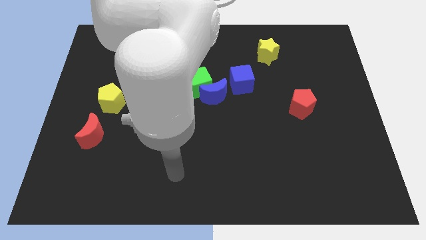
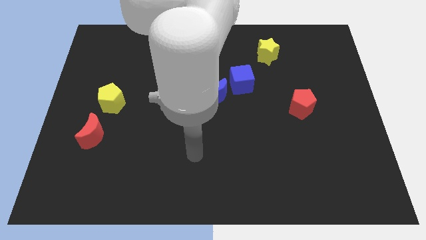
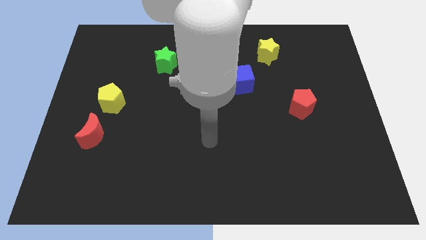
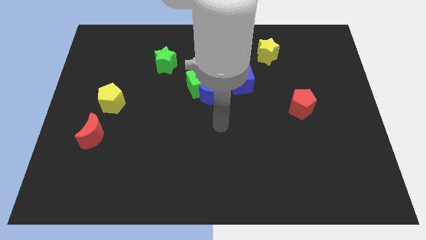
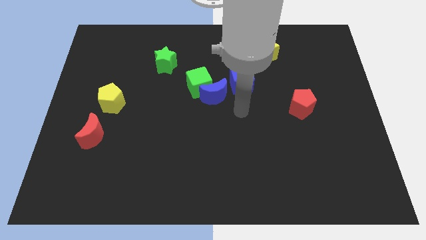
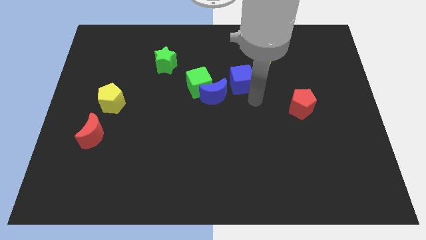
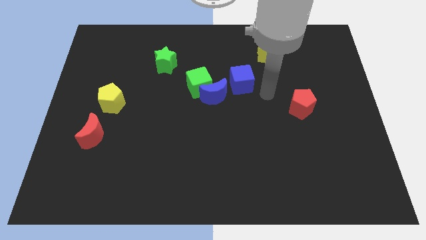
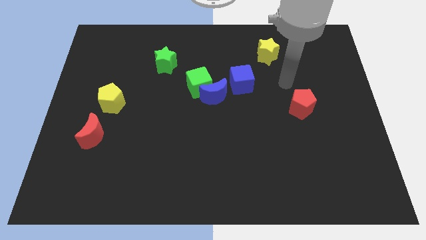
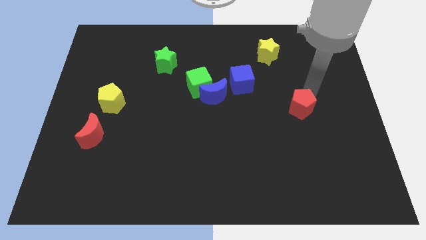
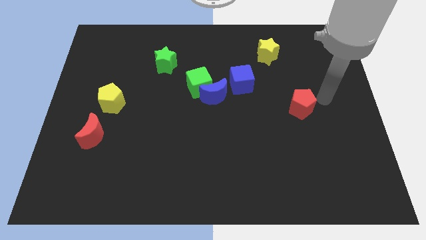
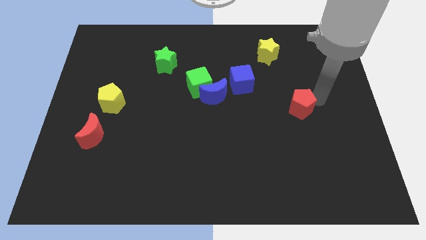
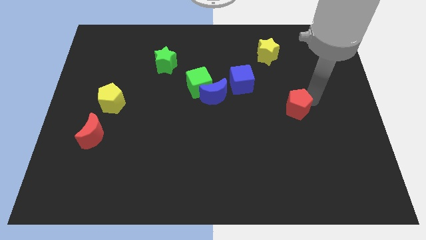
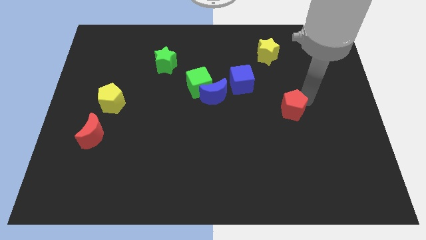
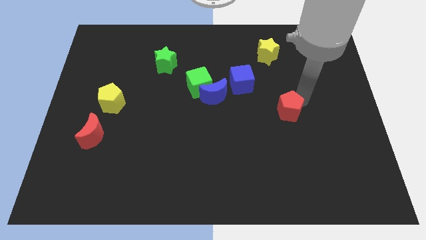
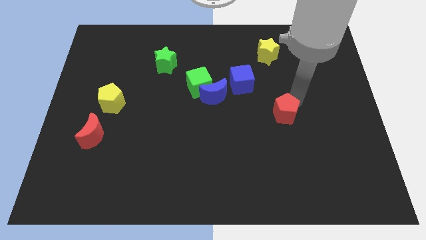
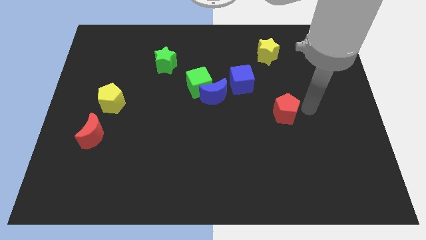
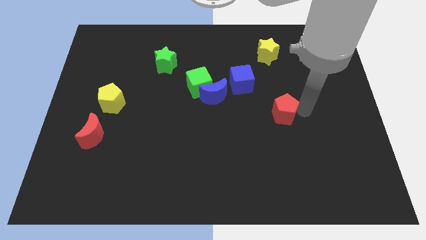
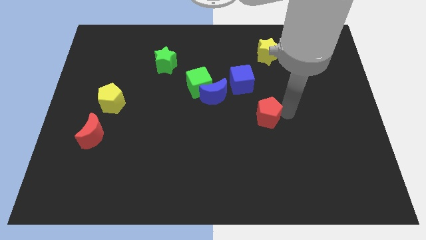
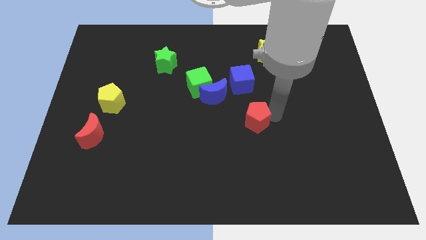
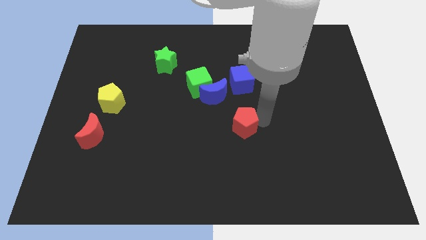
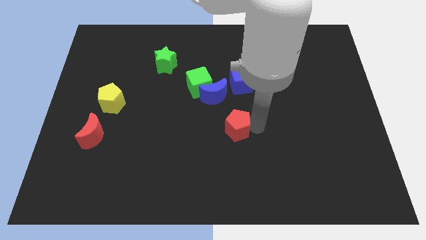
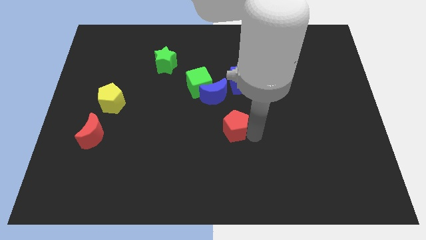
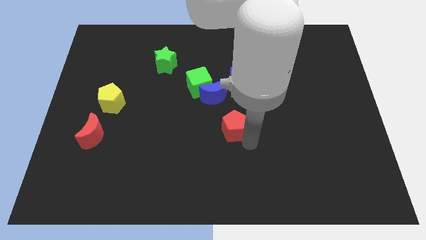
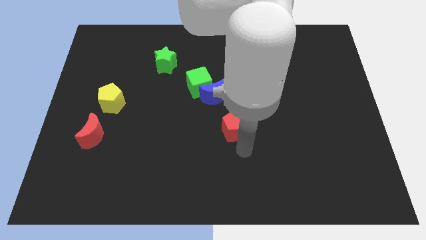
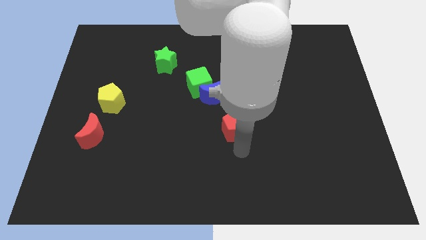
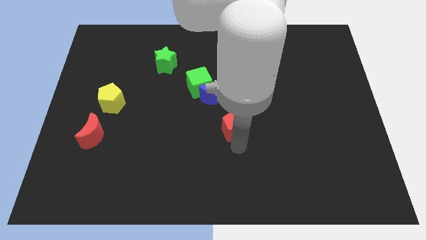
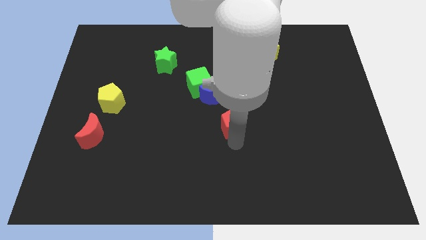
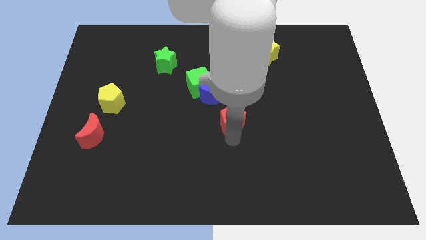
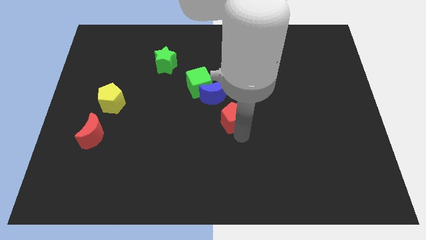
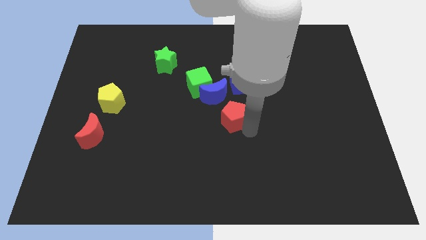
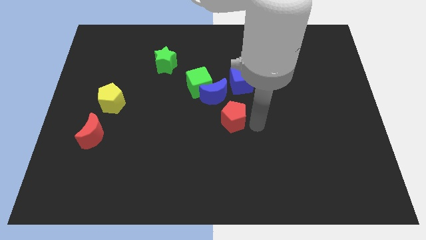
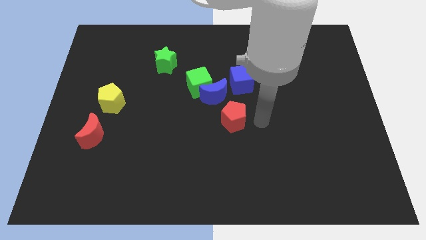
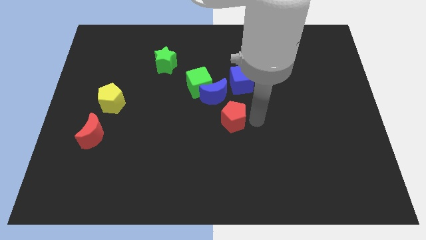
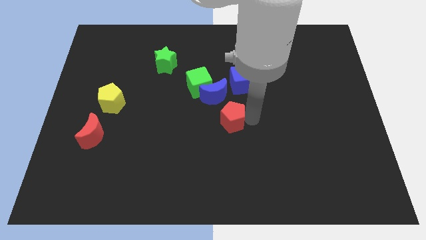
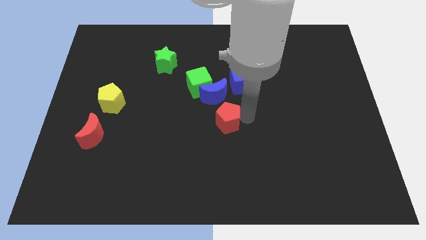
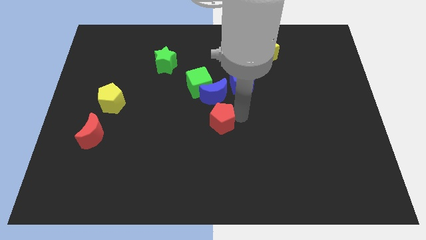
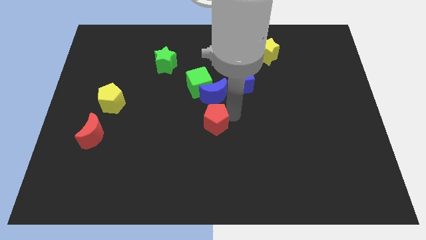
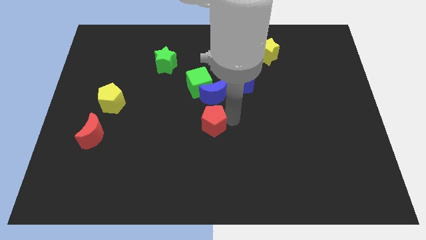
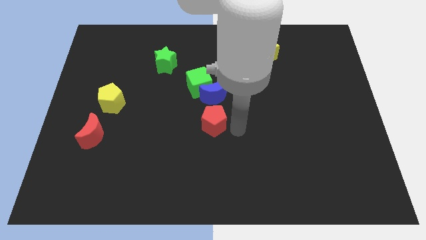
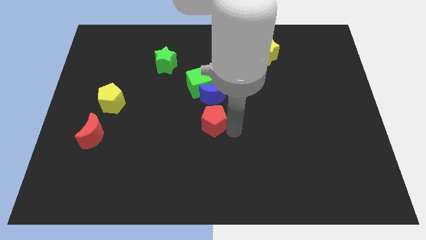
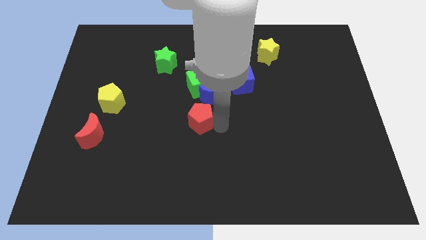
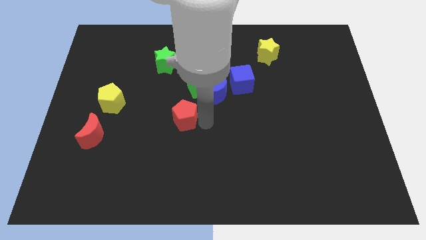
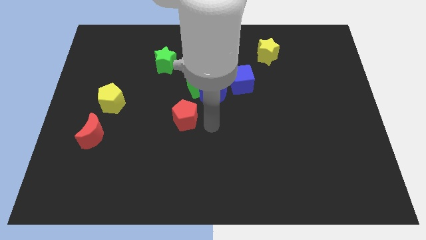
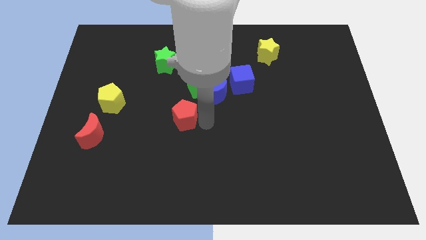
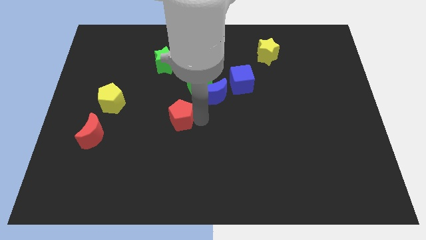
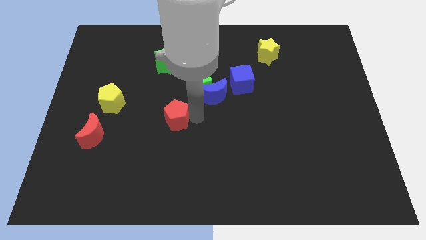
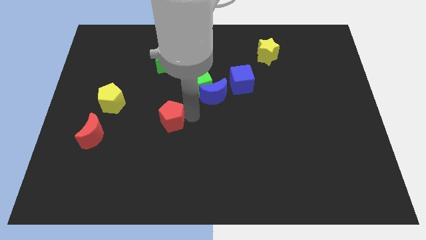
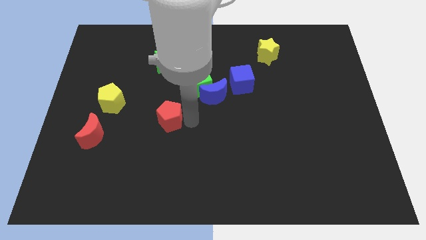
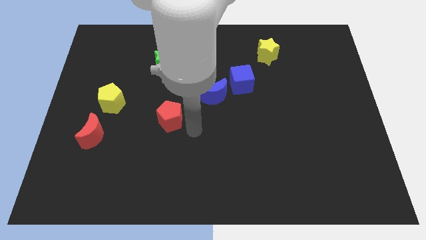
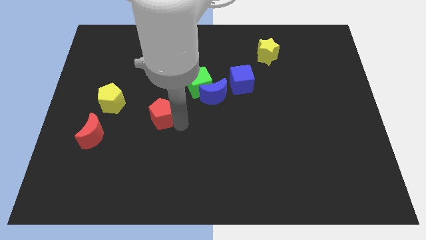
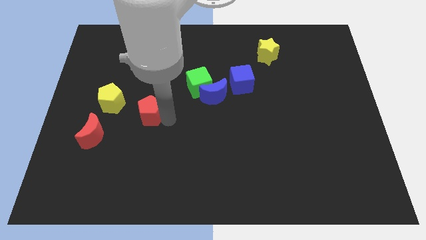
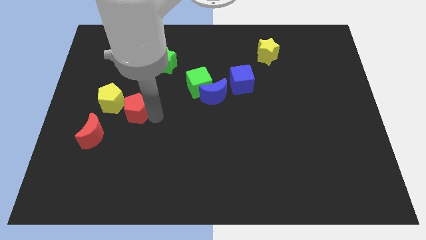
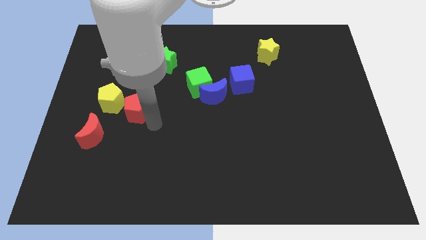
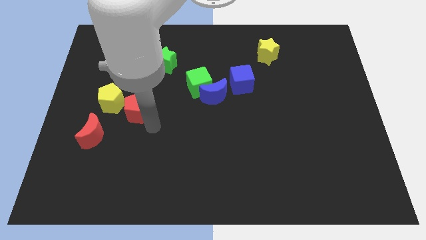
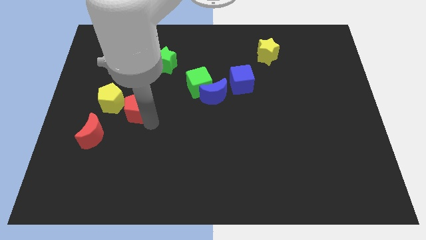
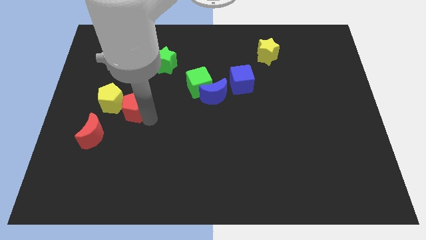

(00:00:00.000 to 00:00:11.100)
slide the red pentagon towards the yellow pentagon

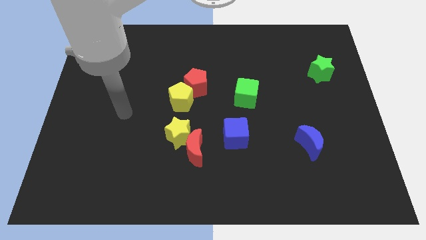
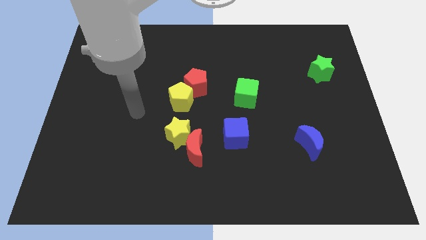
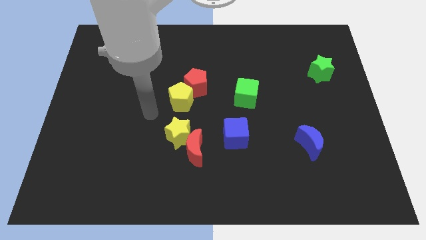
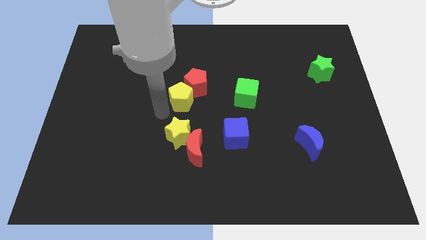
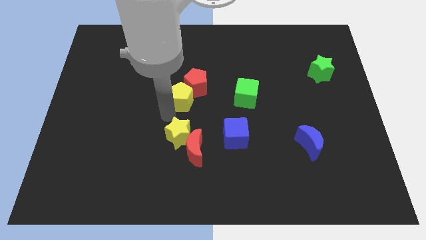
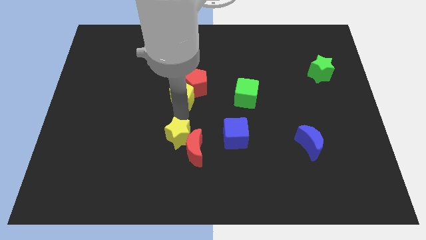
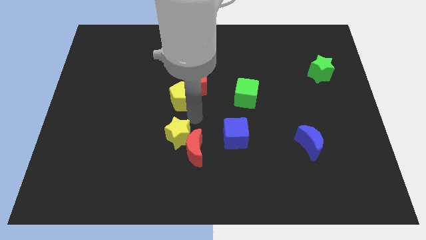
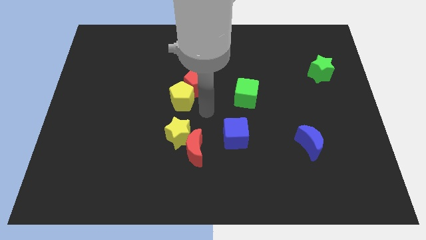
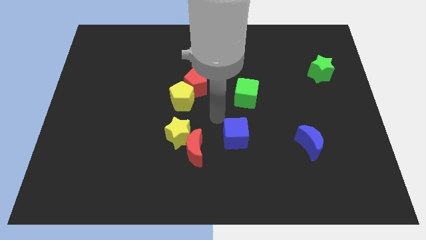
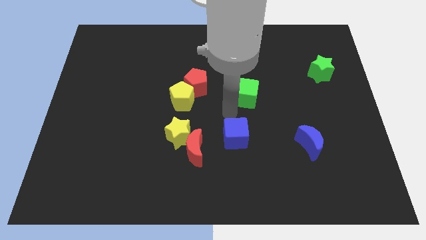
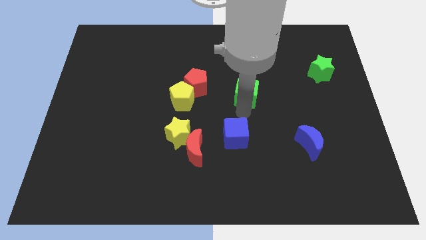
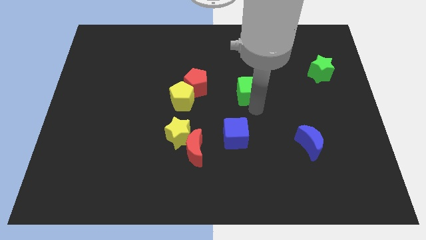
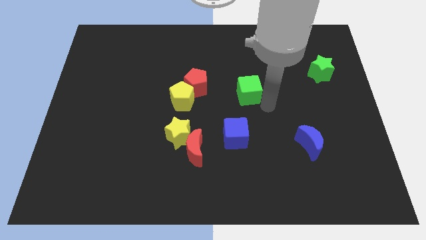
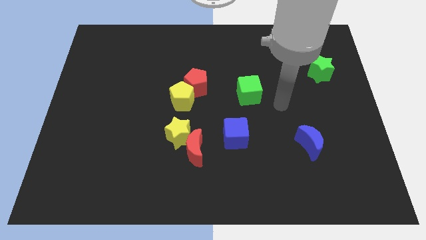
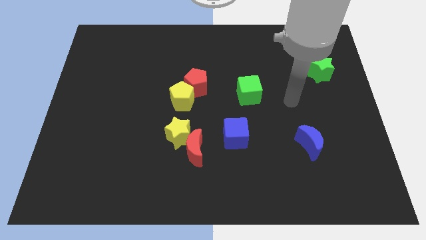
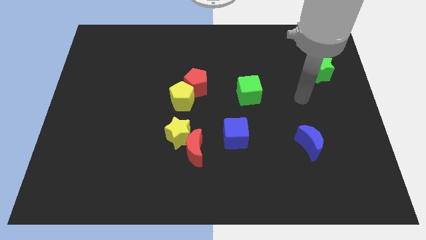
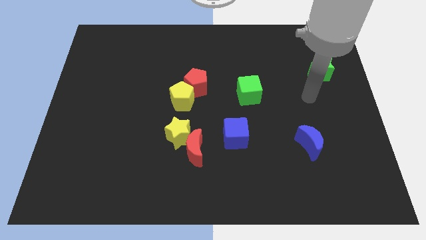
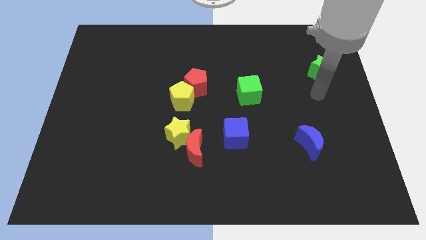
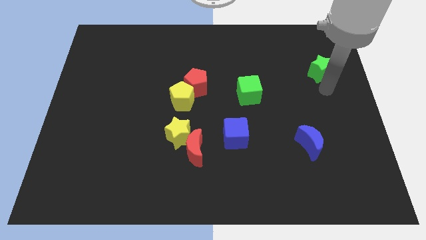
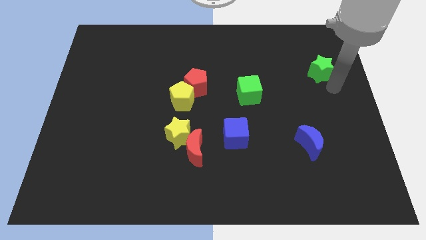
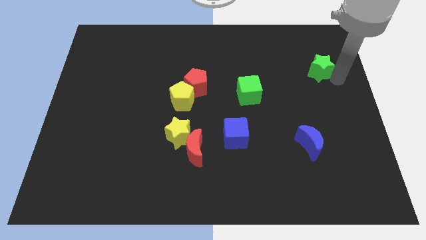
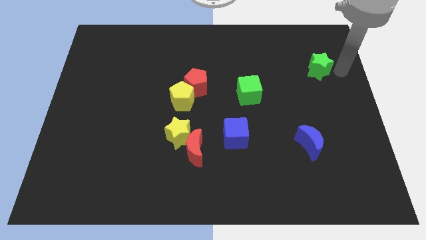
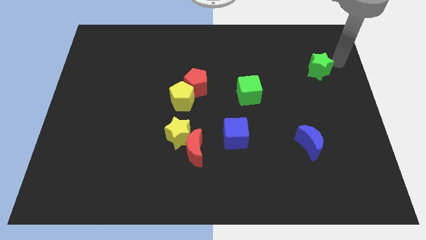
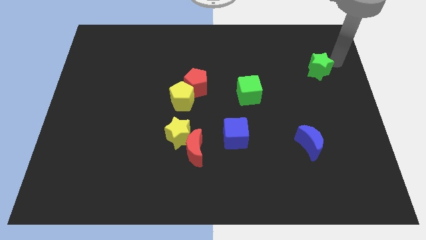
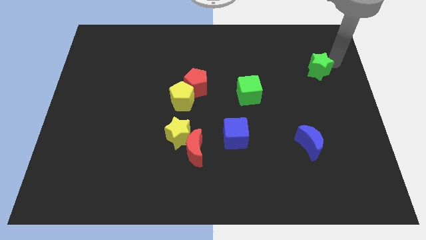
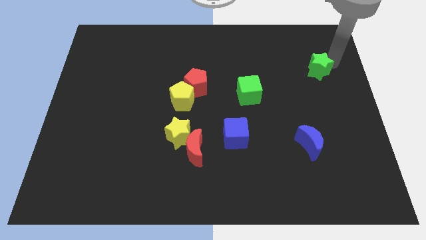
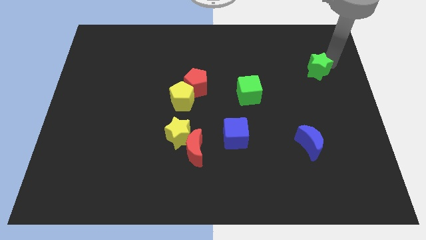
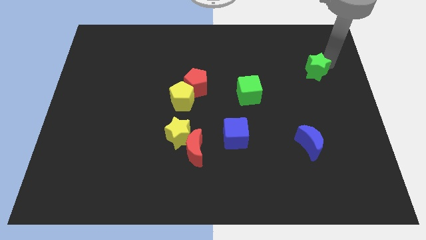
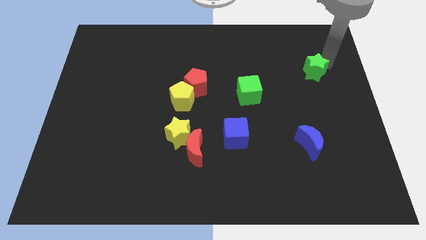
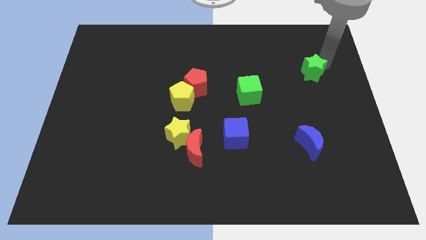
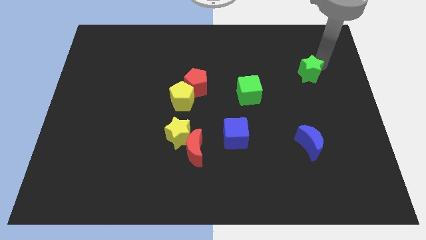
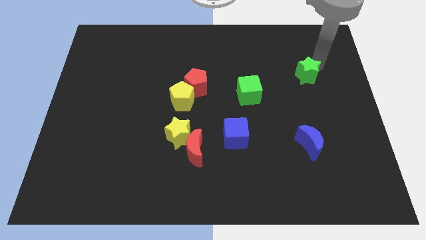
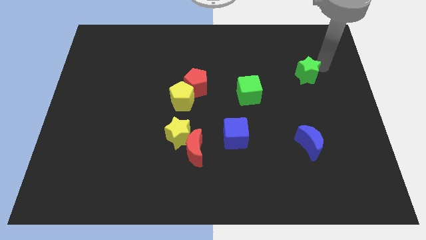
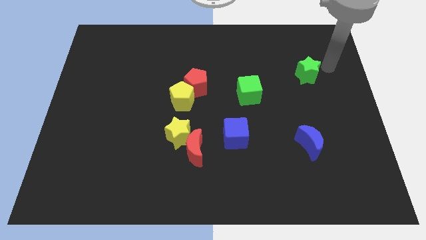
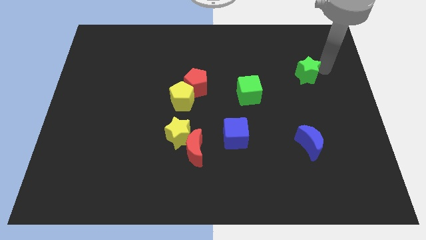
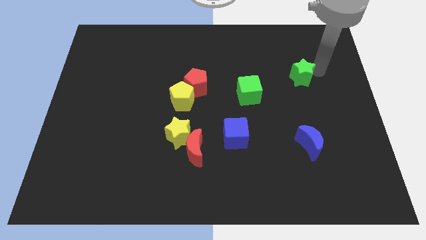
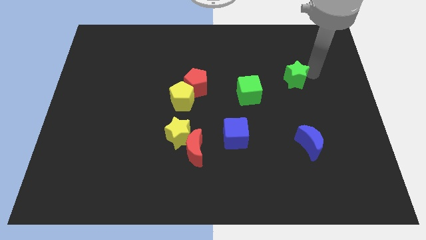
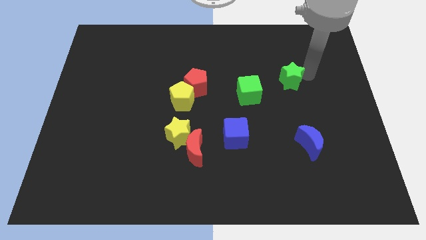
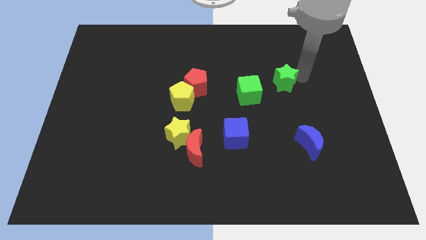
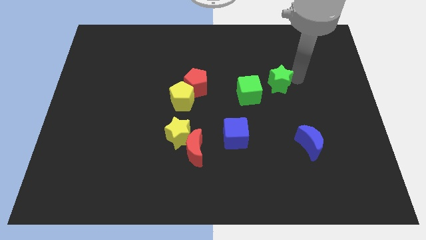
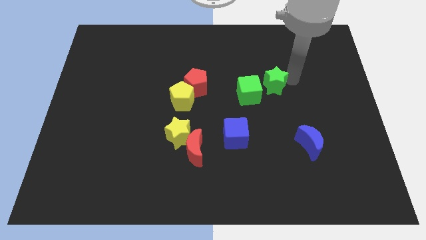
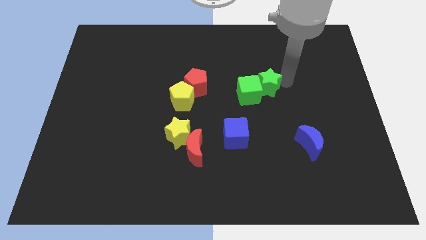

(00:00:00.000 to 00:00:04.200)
move the green star towards the green cube
